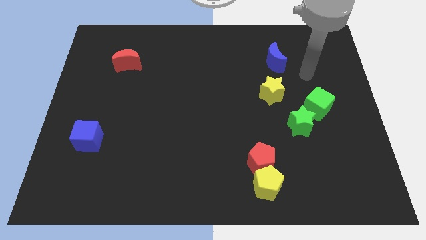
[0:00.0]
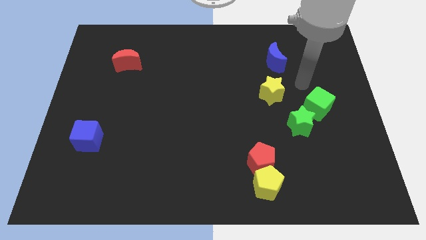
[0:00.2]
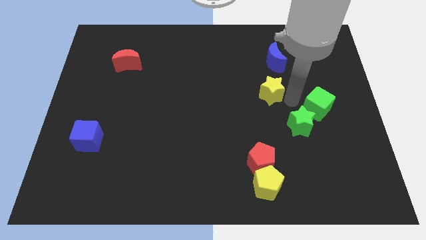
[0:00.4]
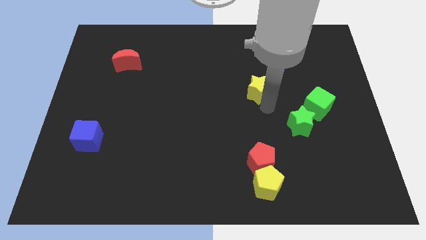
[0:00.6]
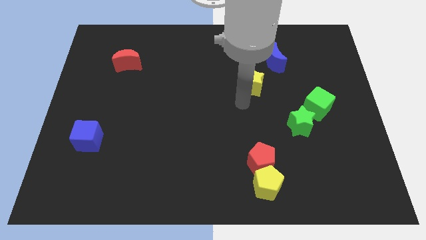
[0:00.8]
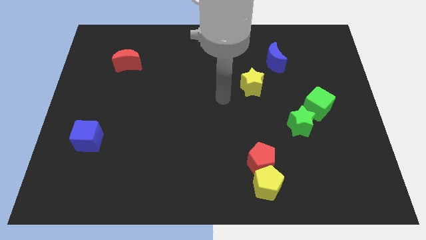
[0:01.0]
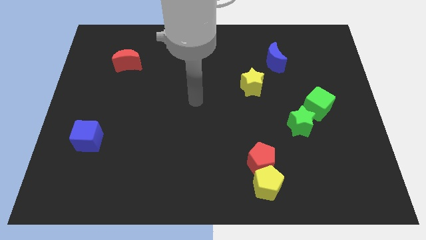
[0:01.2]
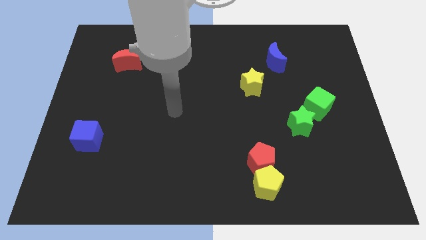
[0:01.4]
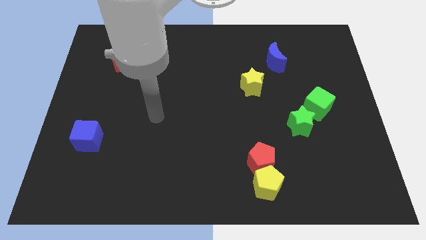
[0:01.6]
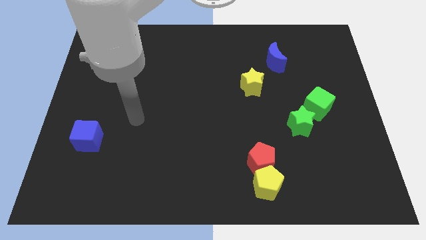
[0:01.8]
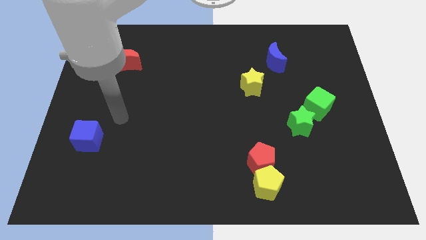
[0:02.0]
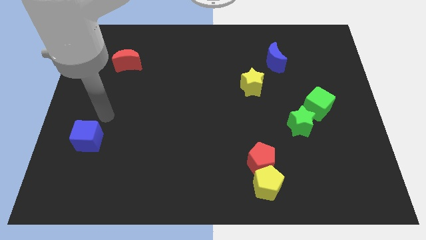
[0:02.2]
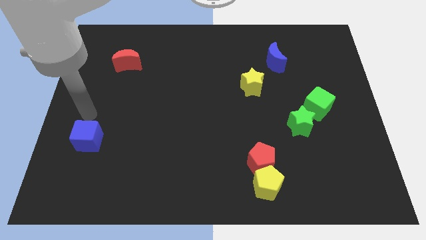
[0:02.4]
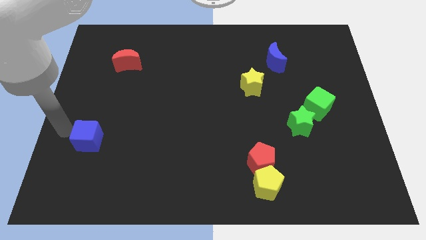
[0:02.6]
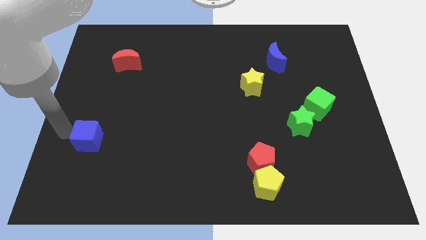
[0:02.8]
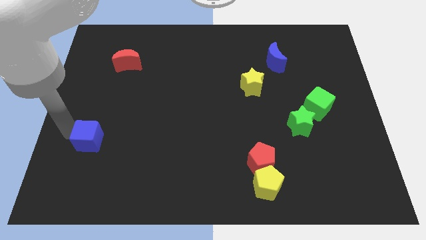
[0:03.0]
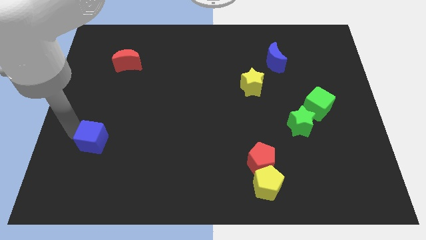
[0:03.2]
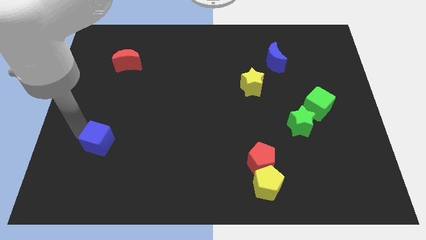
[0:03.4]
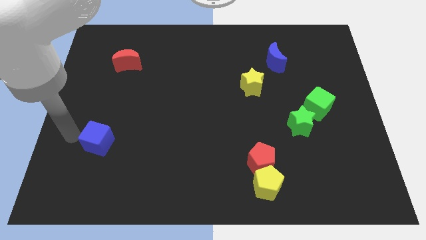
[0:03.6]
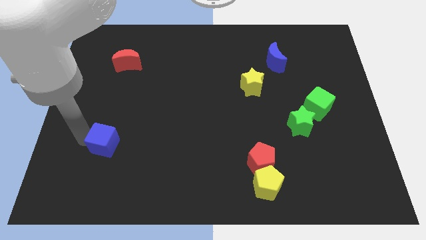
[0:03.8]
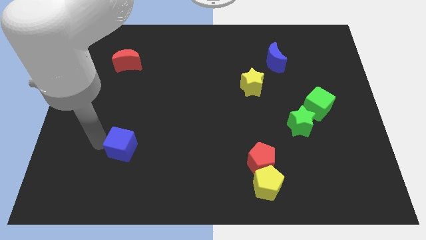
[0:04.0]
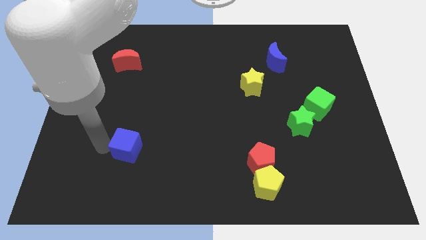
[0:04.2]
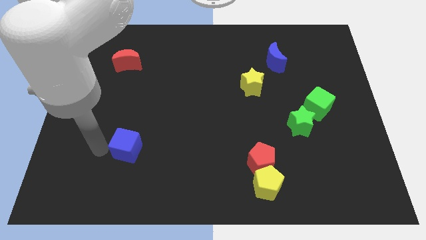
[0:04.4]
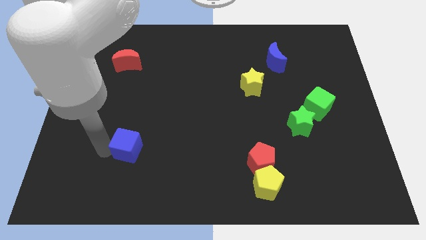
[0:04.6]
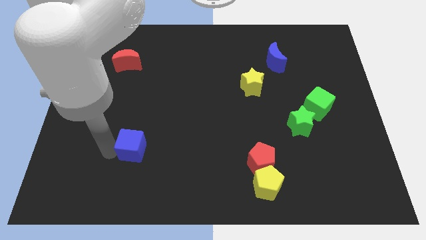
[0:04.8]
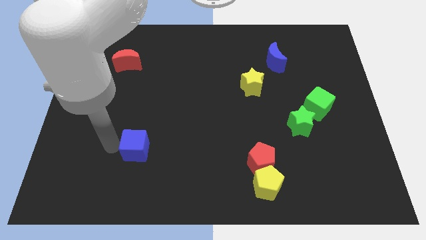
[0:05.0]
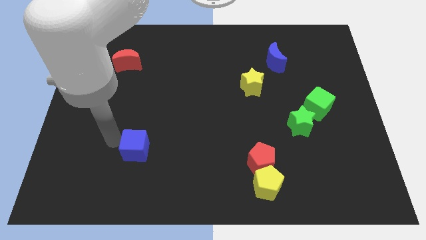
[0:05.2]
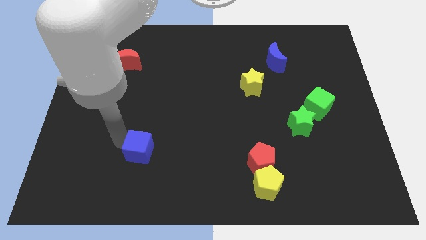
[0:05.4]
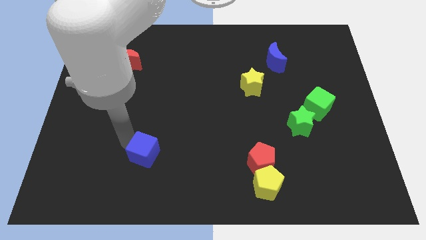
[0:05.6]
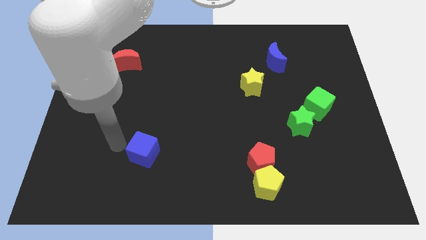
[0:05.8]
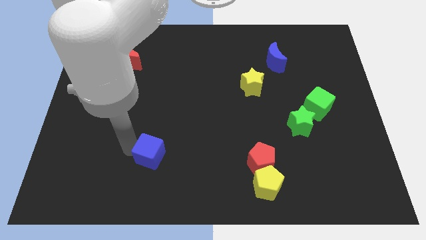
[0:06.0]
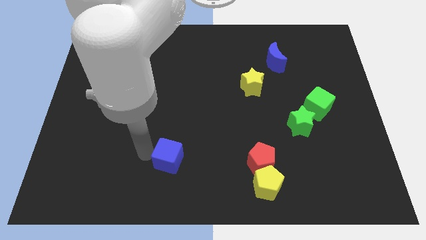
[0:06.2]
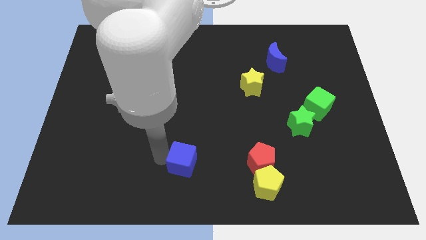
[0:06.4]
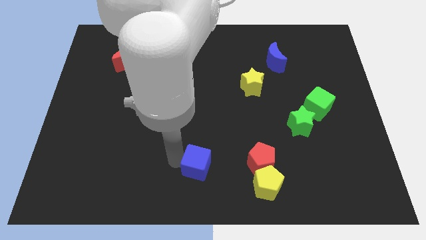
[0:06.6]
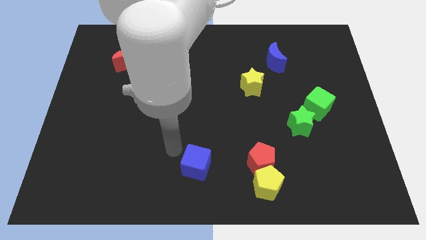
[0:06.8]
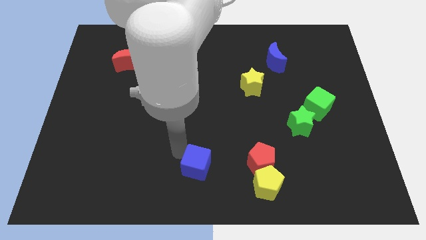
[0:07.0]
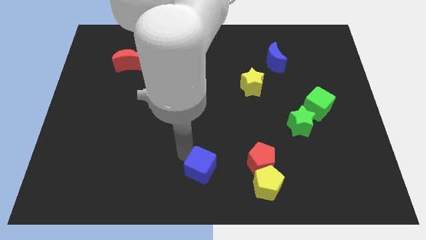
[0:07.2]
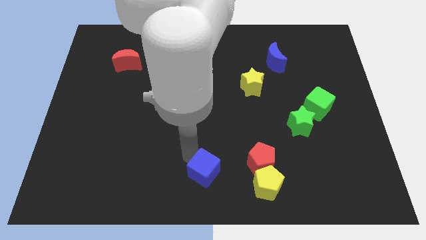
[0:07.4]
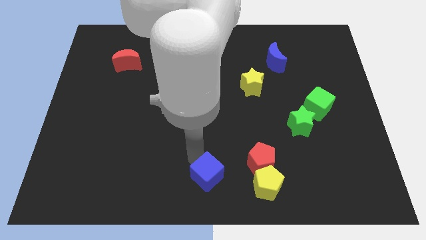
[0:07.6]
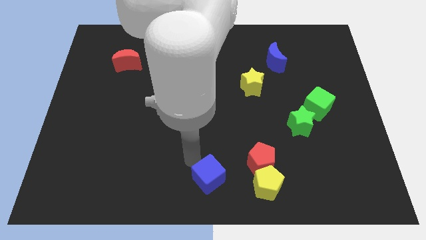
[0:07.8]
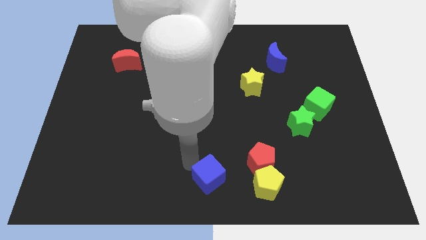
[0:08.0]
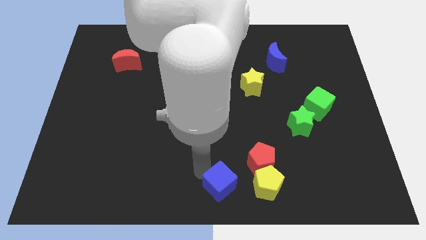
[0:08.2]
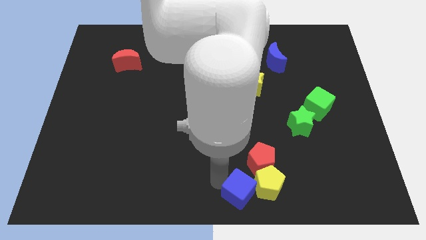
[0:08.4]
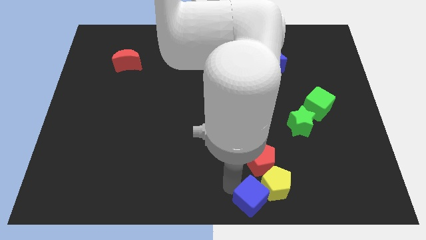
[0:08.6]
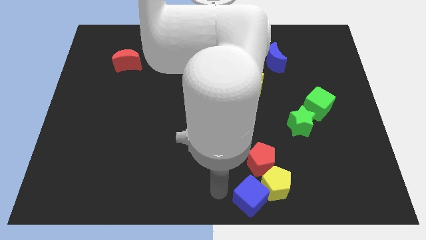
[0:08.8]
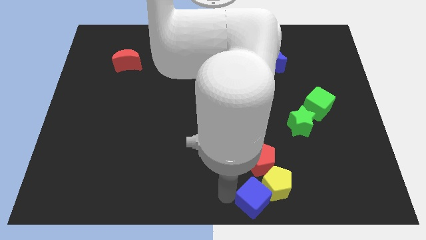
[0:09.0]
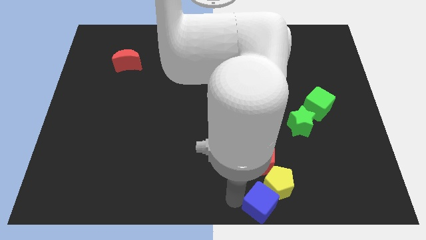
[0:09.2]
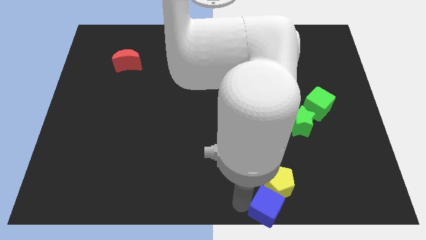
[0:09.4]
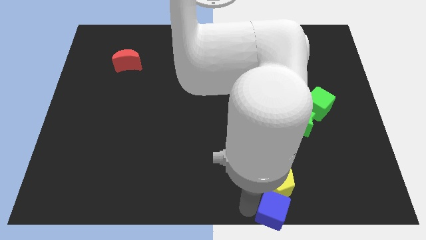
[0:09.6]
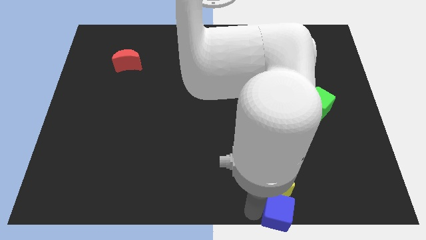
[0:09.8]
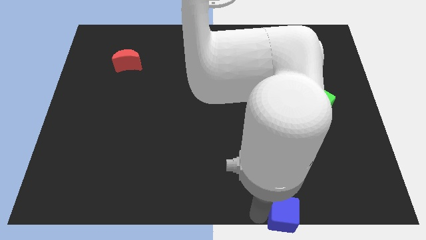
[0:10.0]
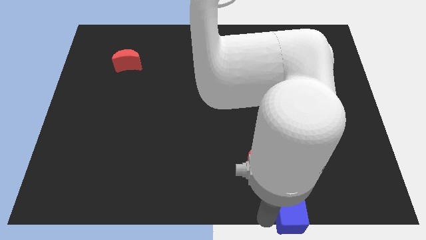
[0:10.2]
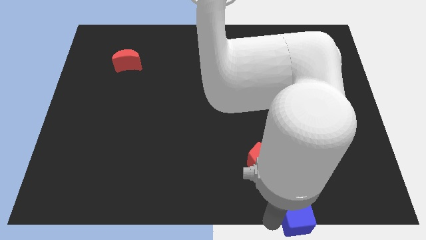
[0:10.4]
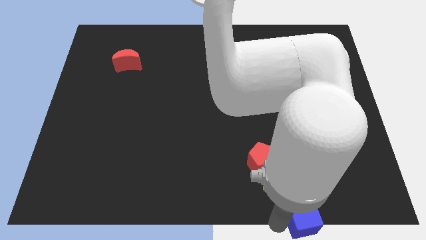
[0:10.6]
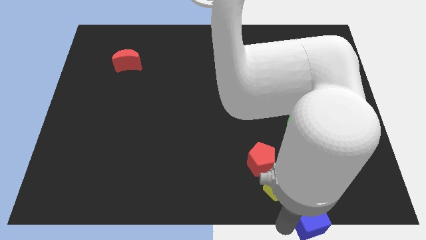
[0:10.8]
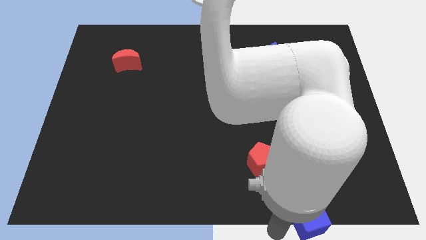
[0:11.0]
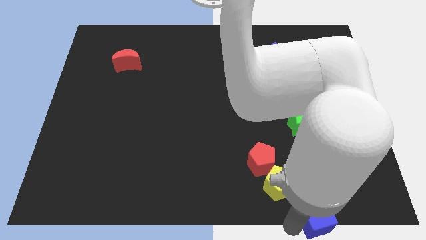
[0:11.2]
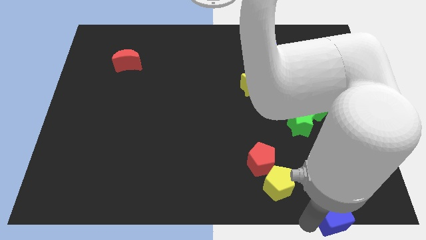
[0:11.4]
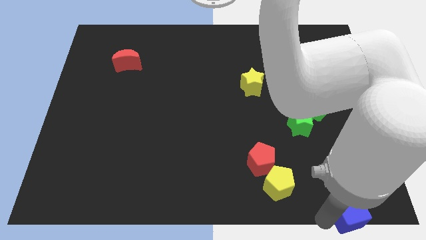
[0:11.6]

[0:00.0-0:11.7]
put the blue cube to the lower right corner
